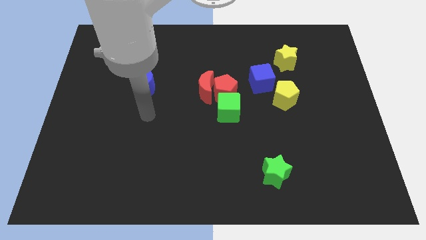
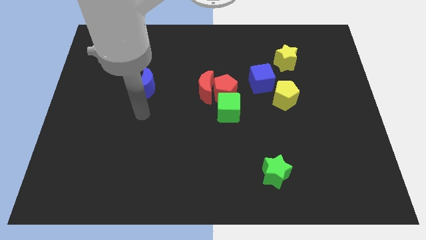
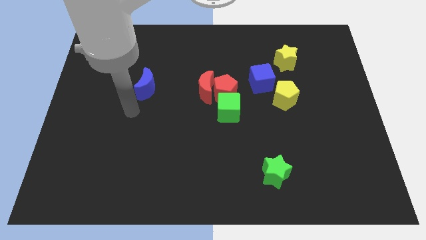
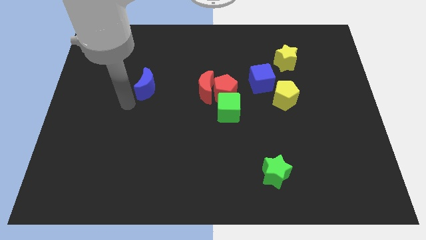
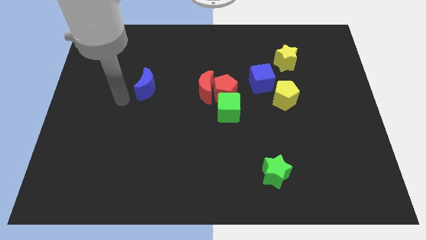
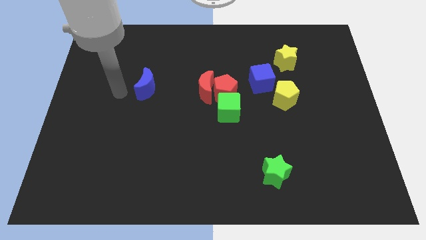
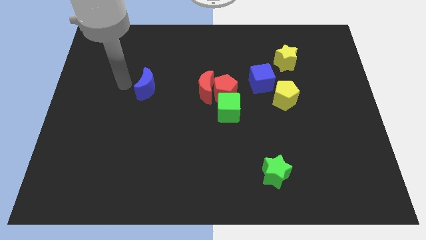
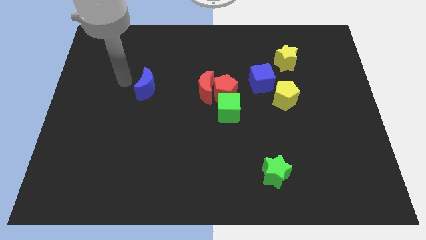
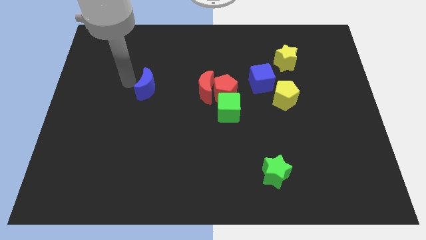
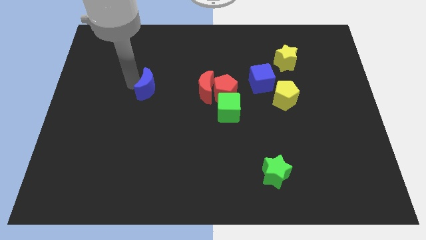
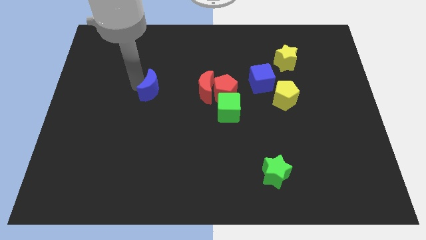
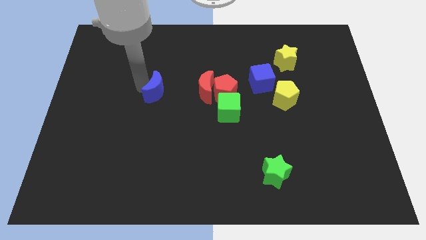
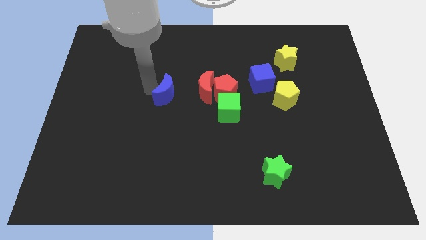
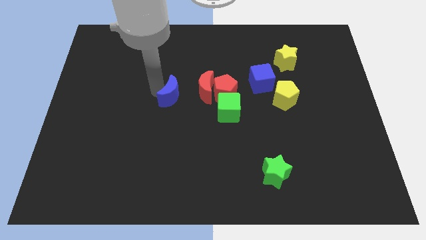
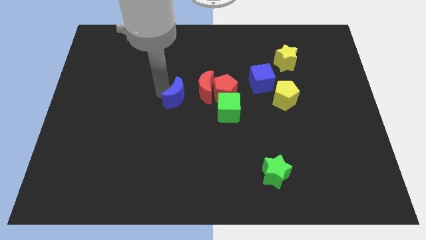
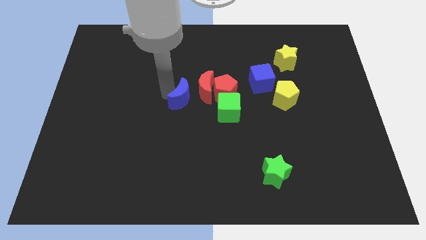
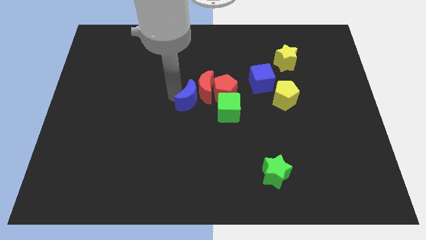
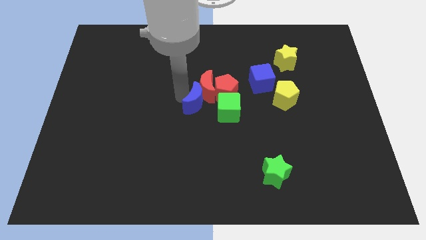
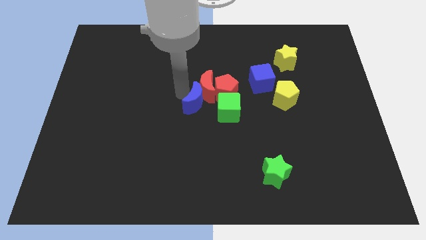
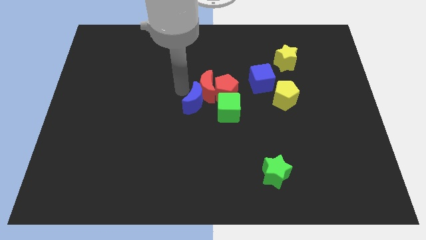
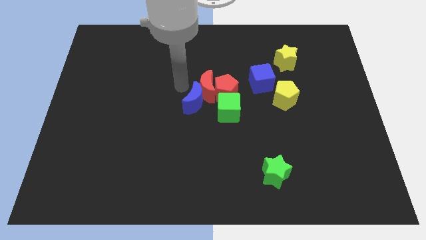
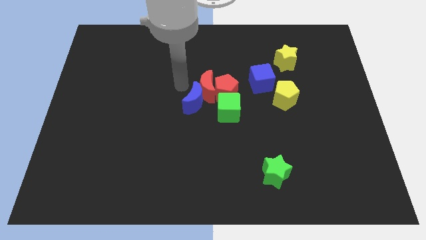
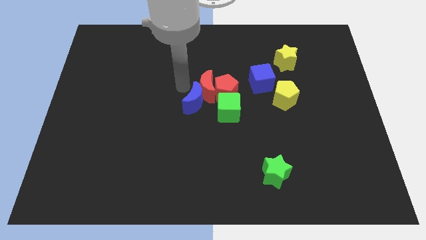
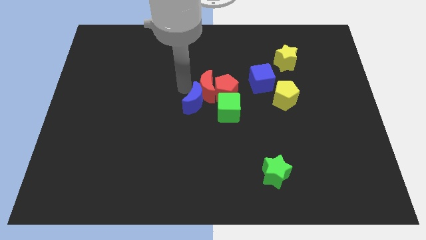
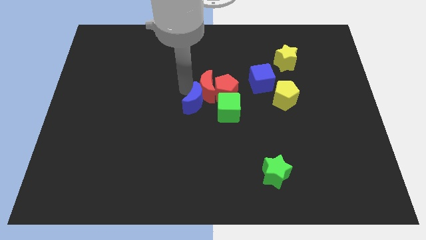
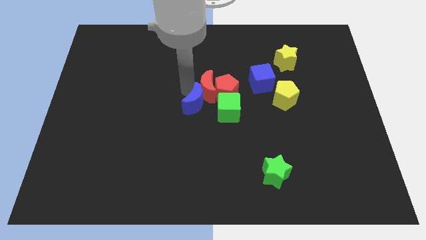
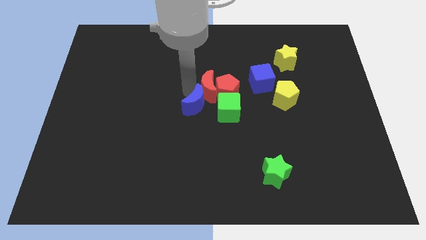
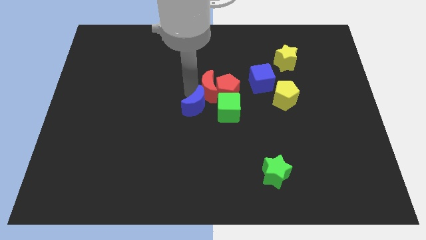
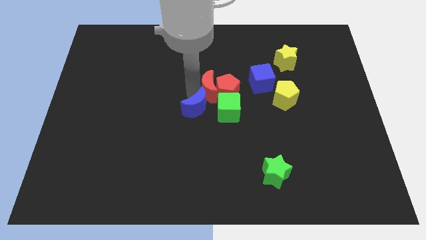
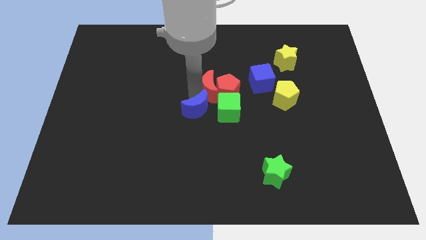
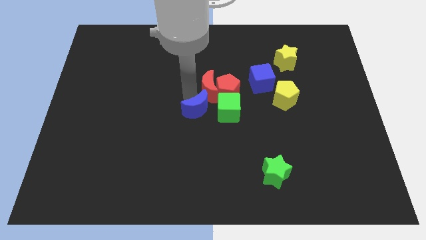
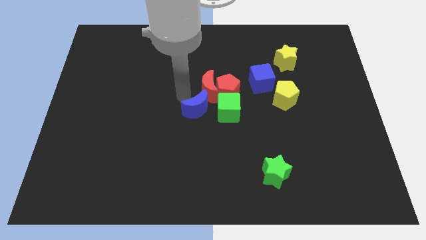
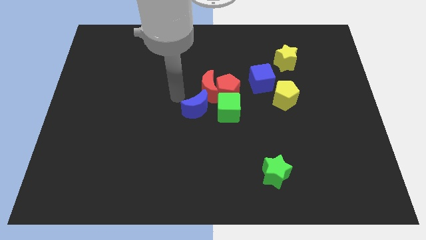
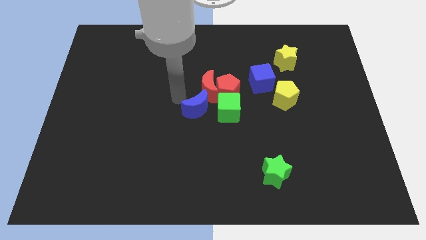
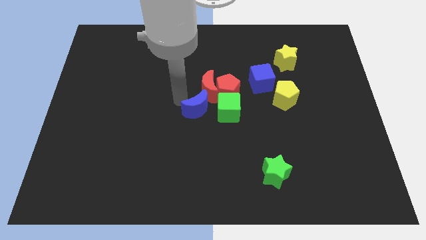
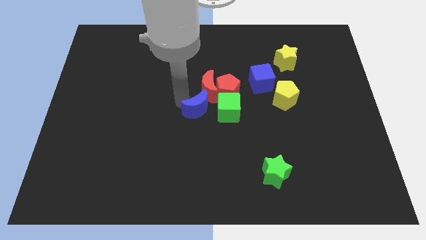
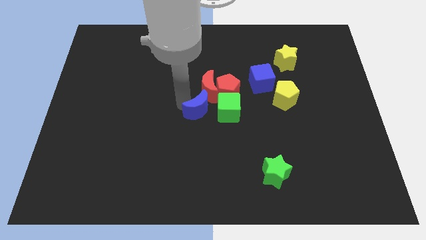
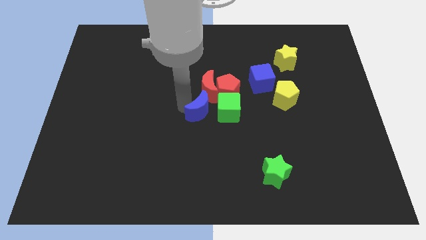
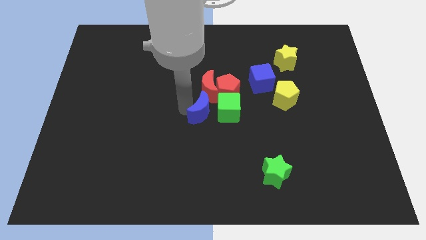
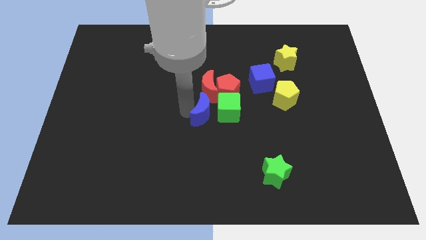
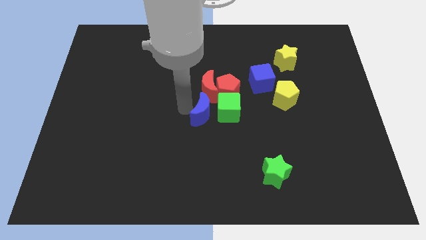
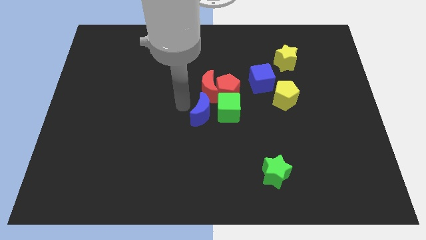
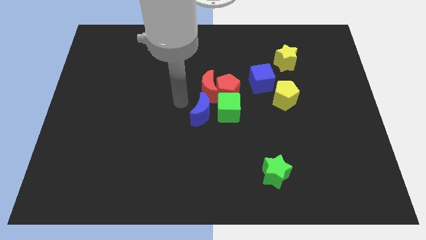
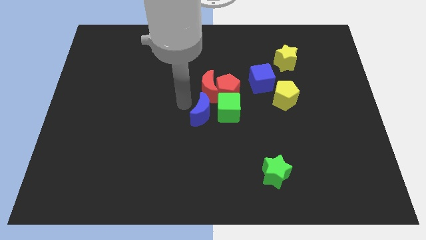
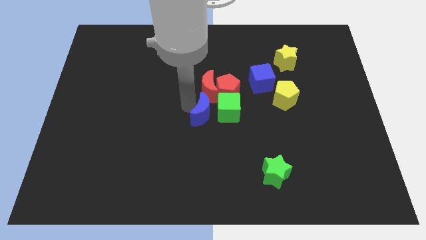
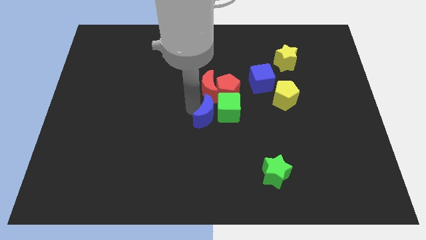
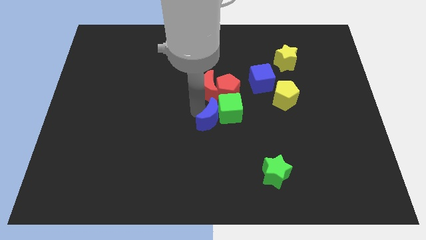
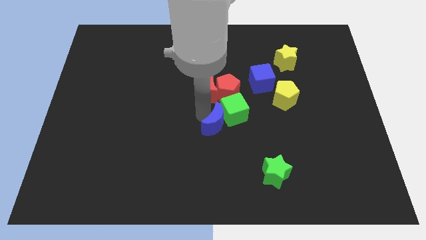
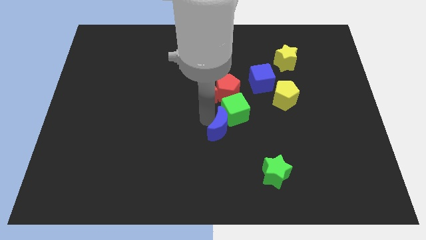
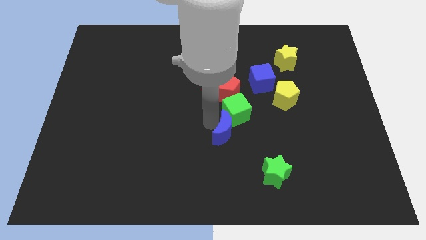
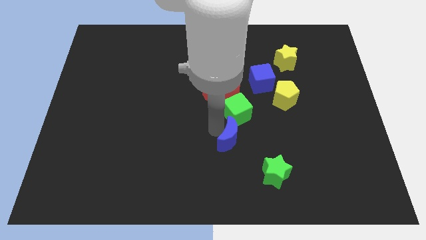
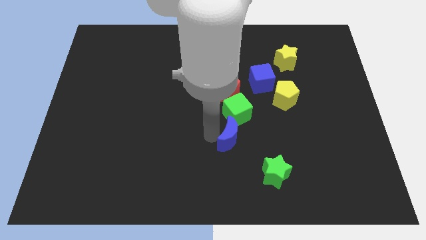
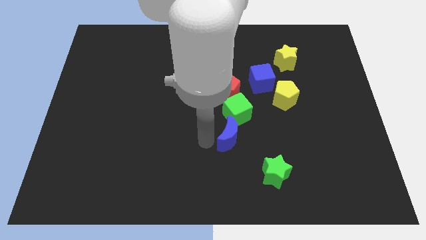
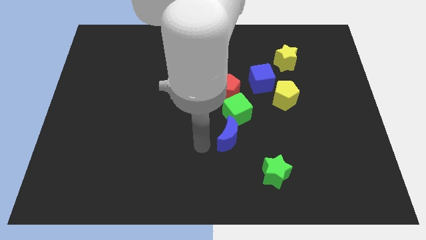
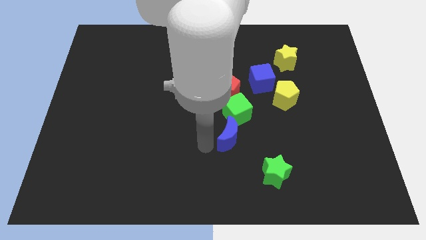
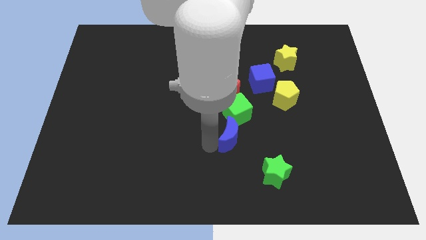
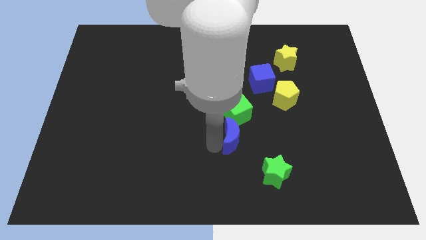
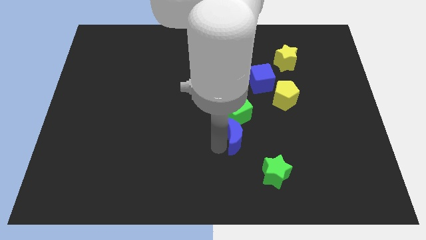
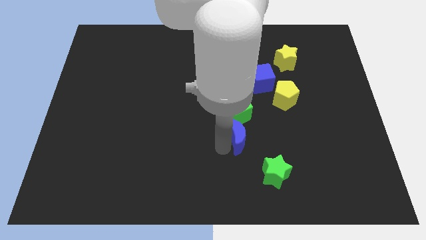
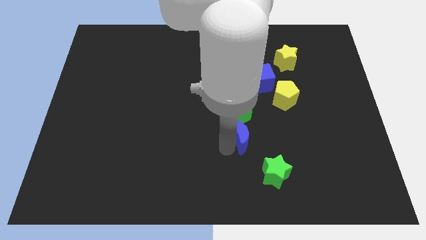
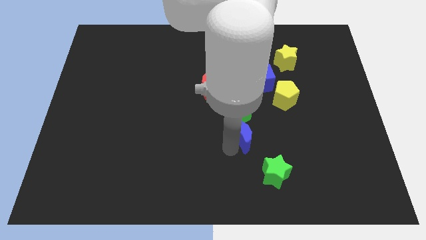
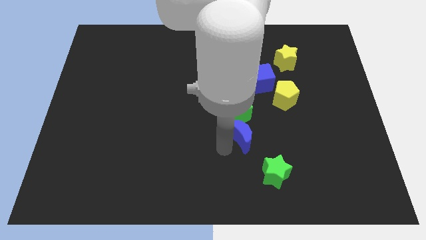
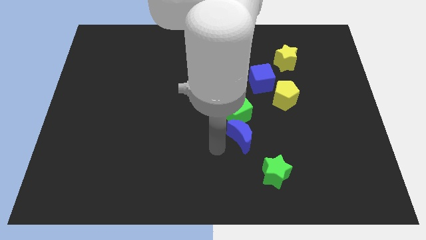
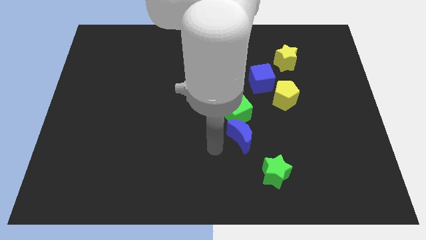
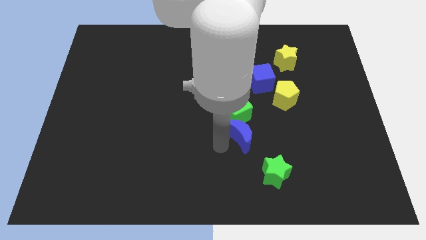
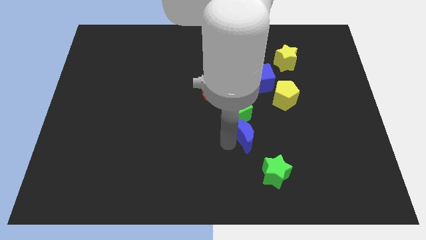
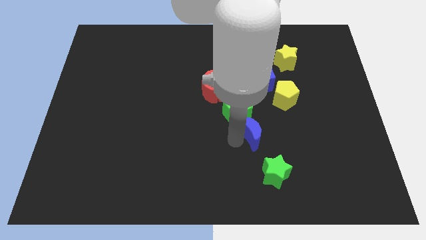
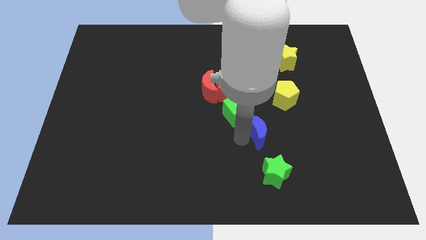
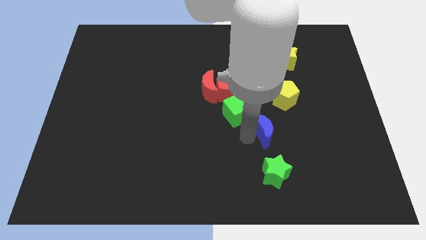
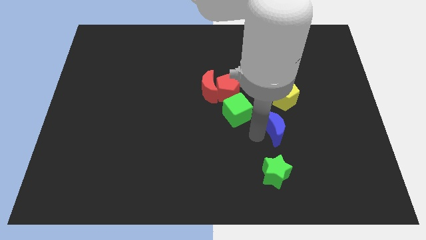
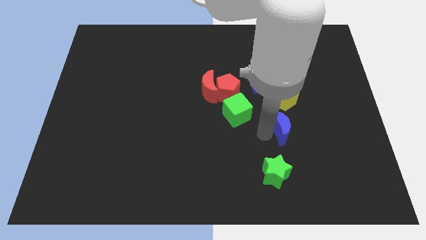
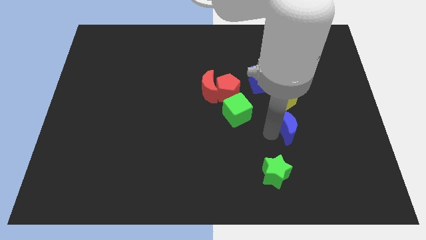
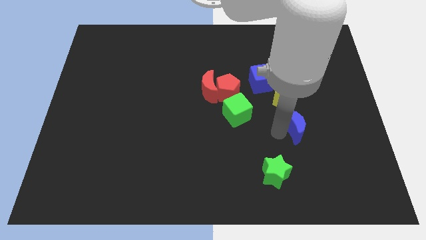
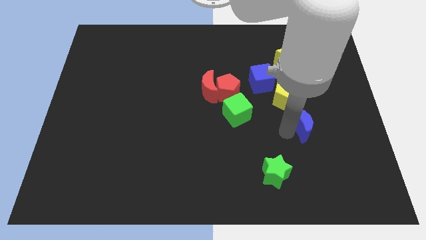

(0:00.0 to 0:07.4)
slide the blue moon diagonally down and to the right of the yellow pentagon
